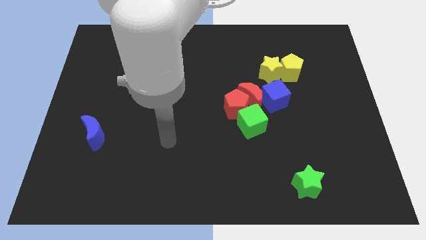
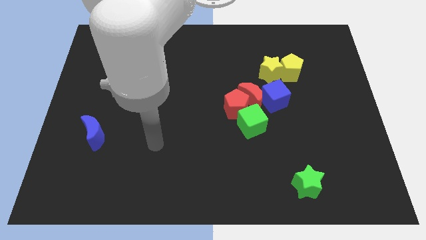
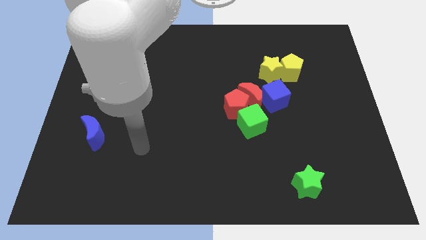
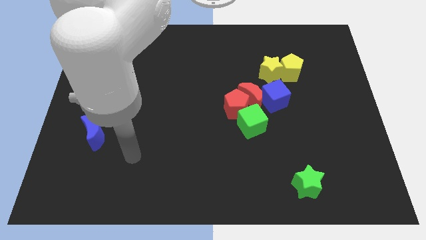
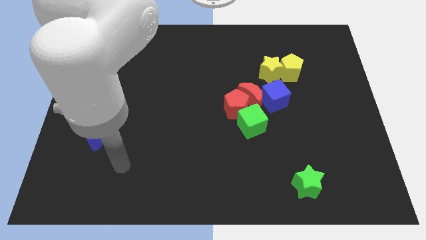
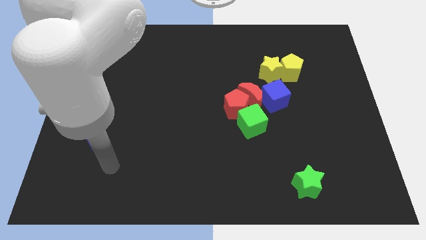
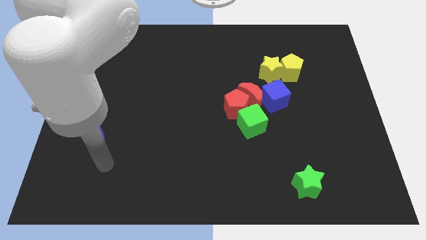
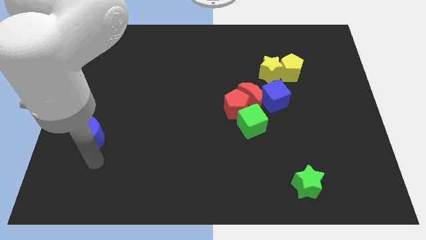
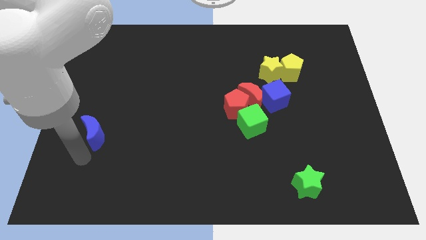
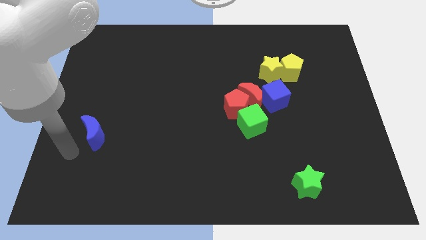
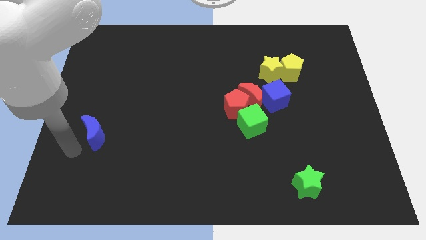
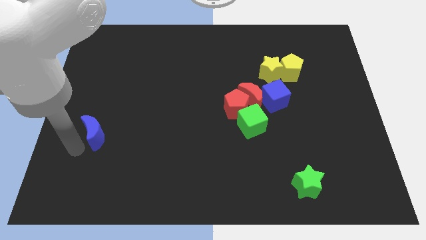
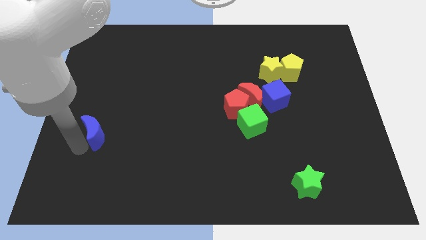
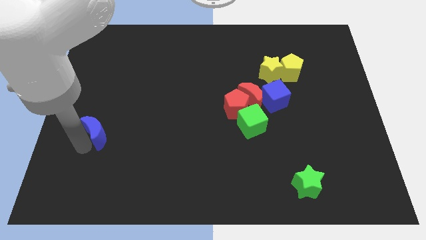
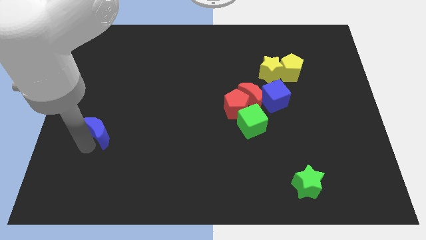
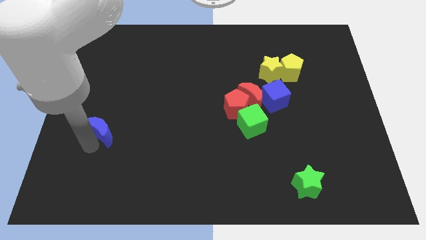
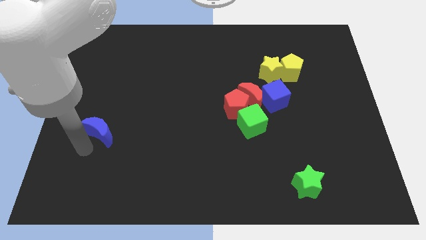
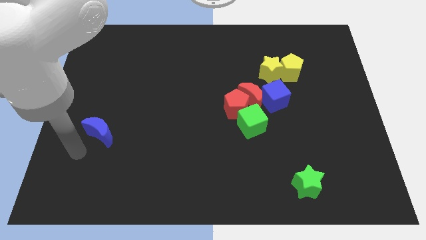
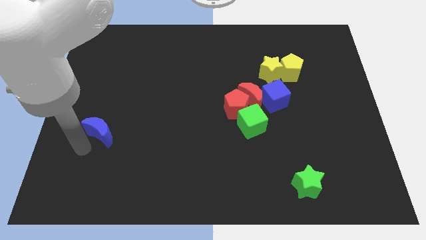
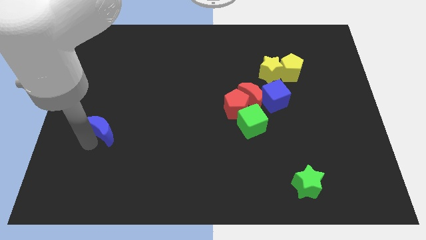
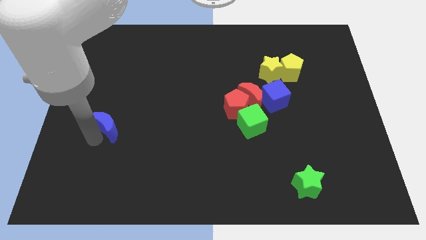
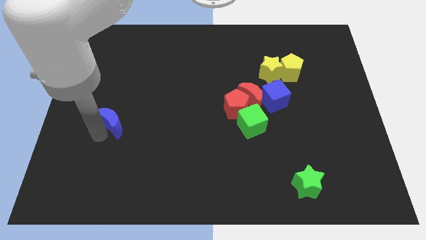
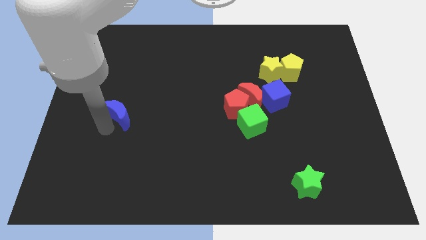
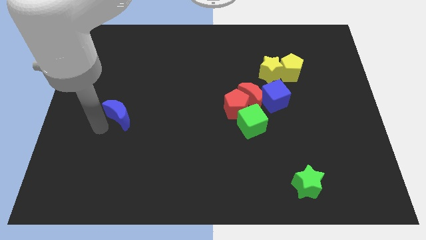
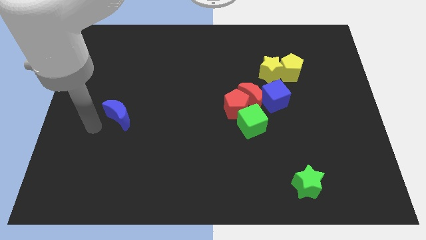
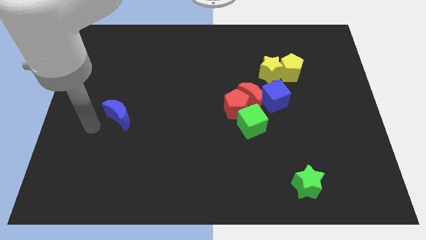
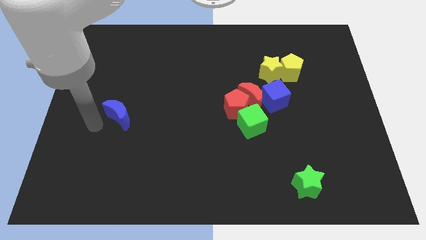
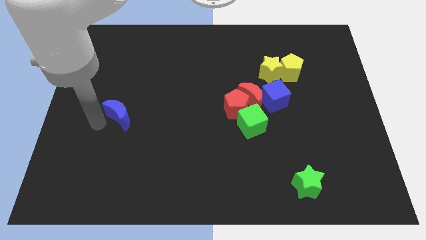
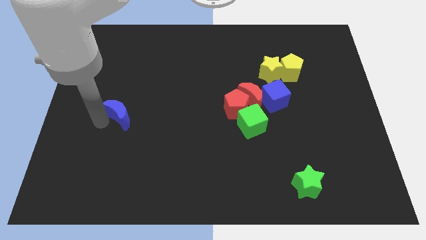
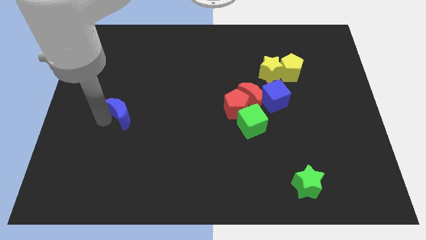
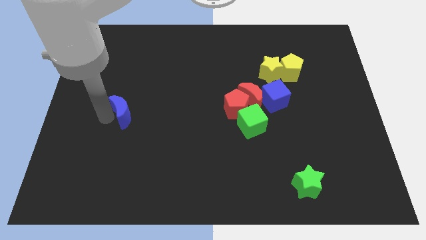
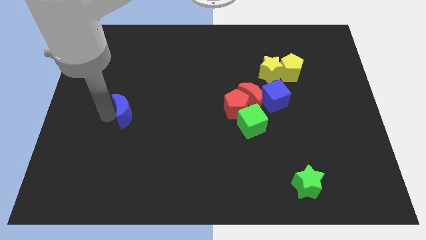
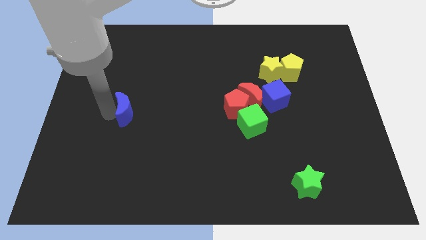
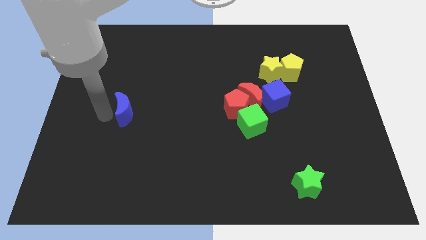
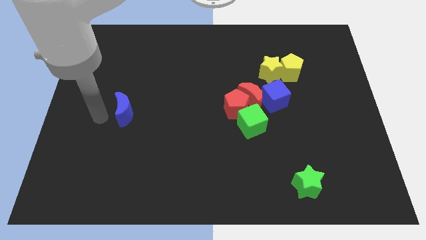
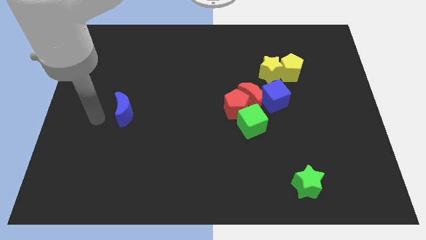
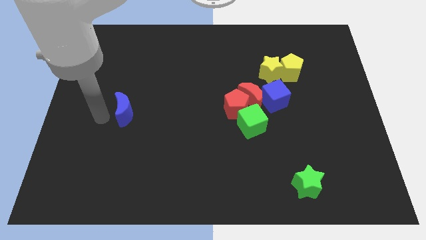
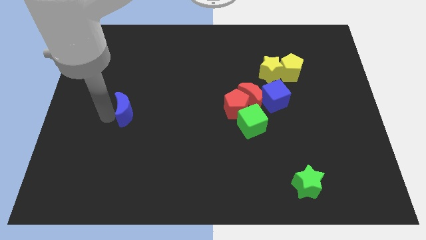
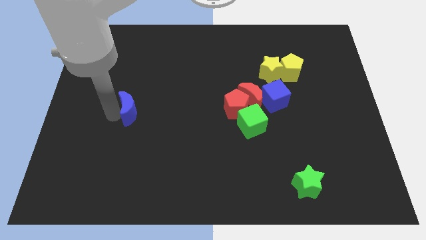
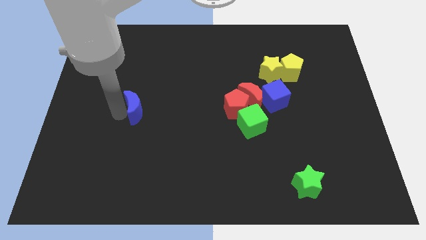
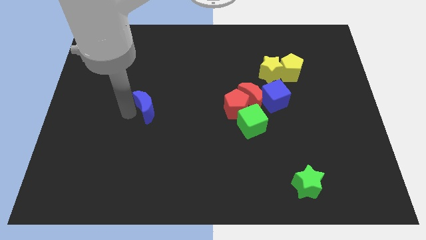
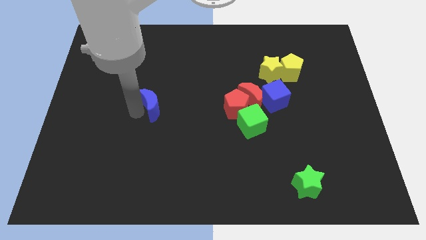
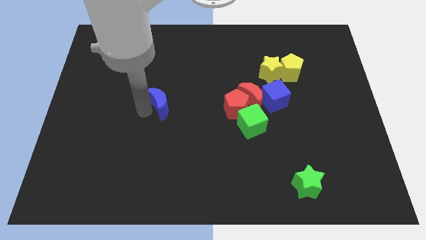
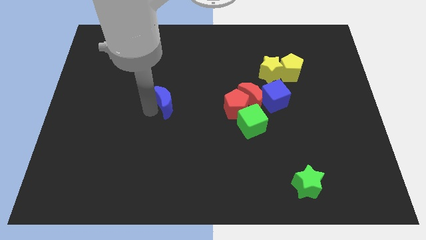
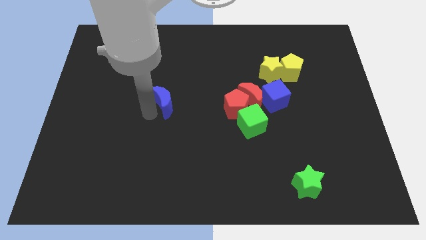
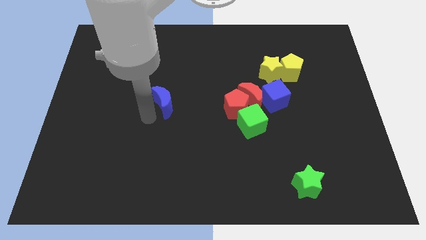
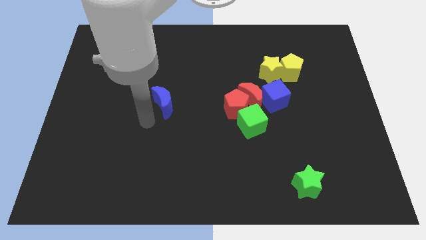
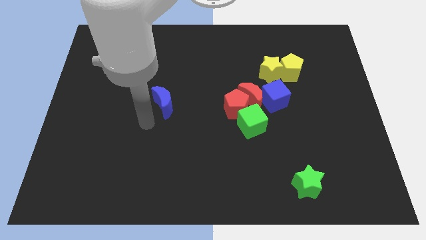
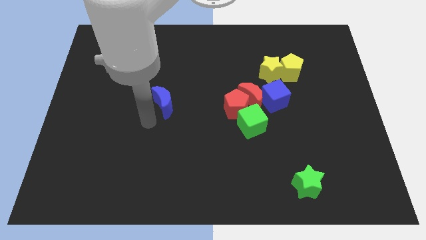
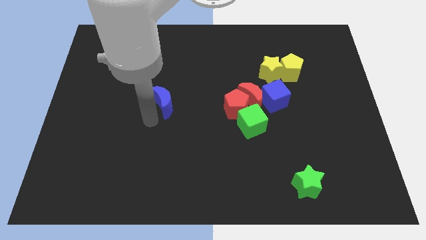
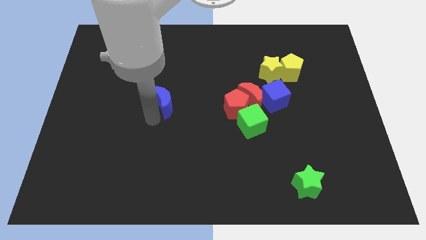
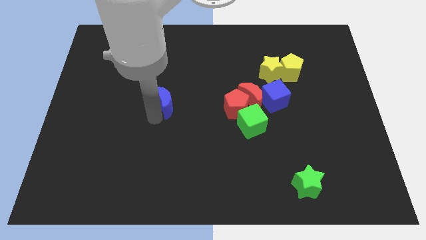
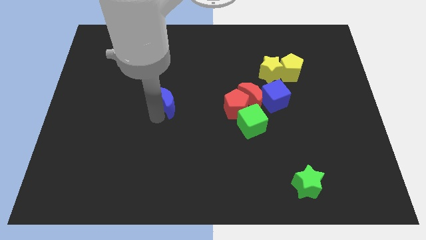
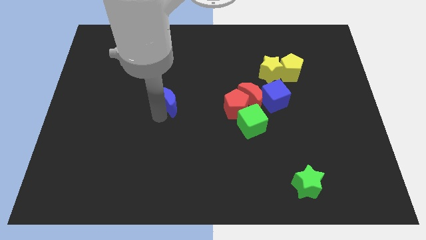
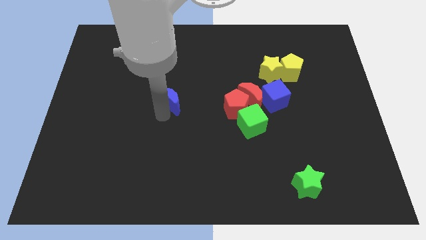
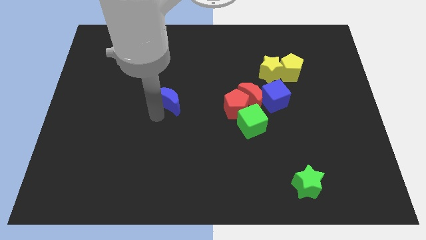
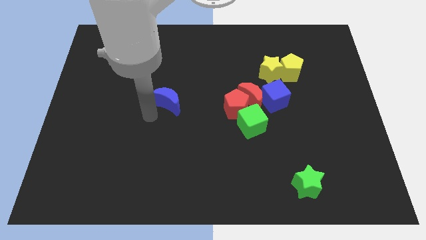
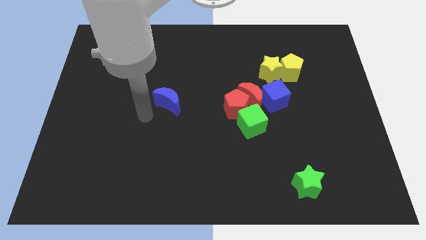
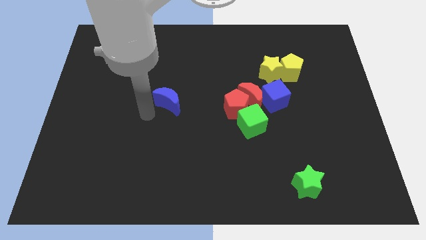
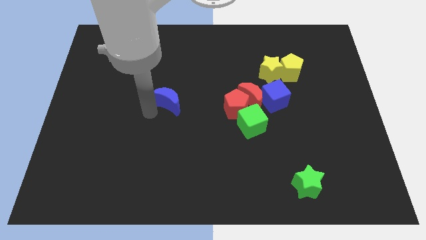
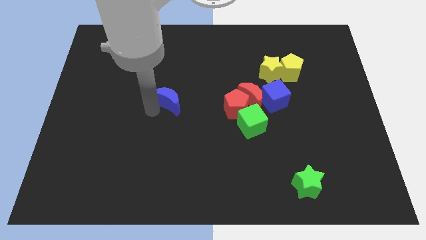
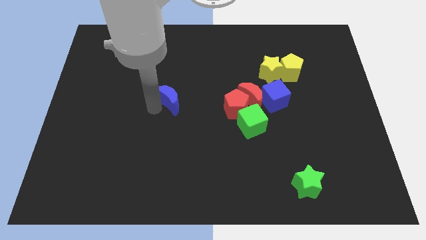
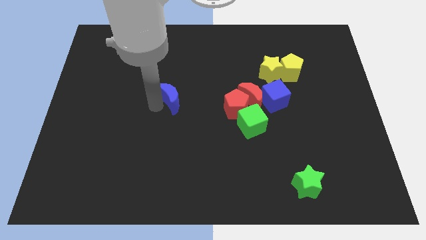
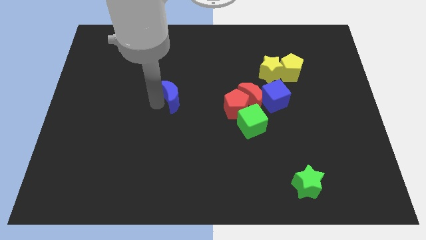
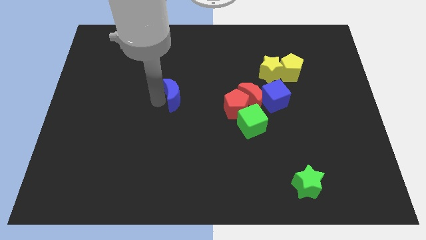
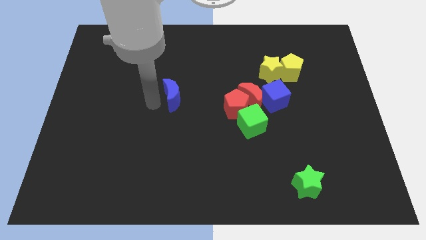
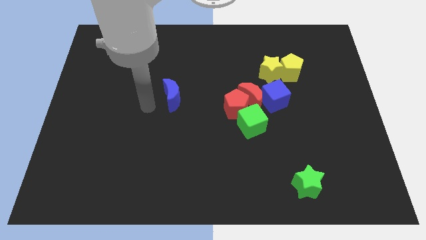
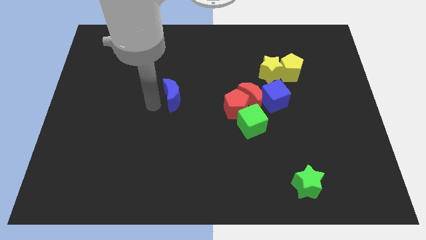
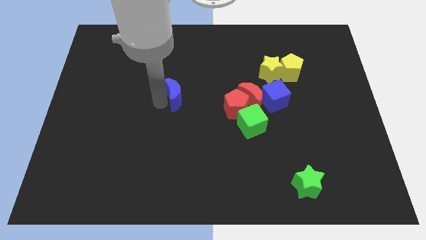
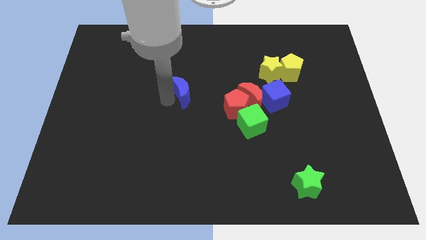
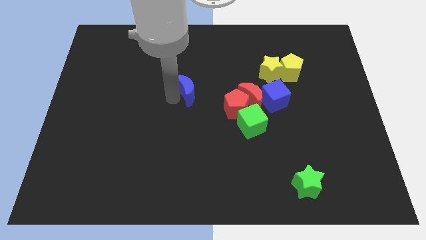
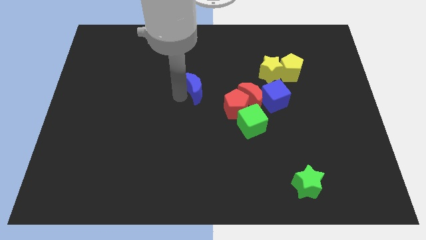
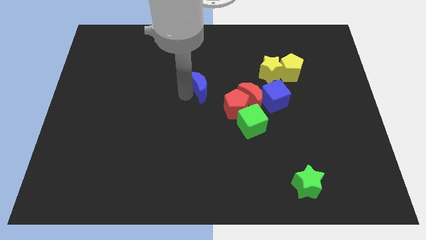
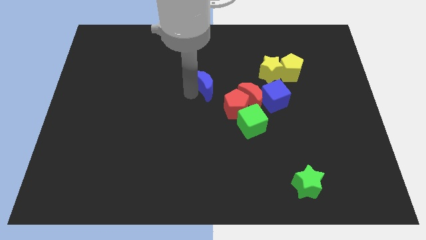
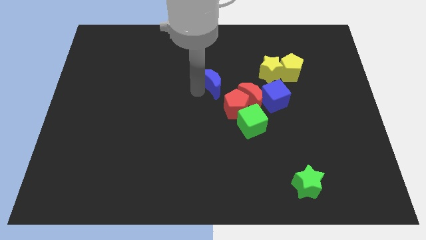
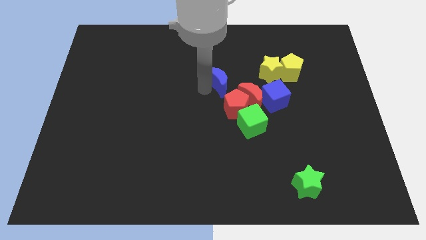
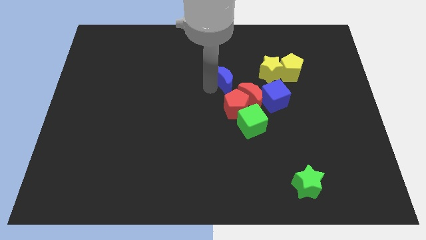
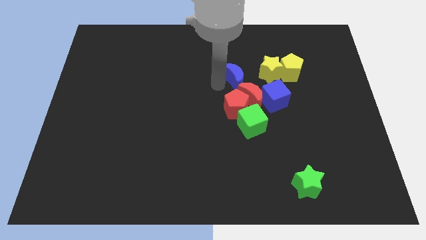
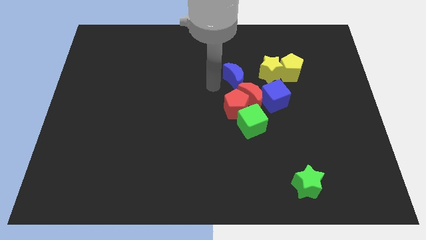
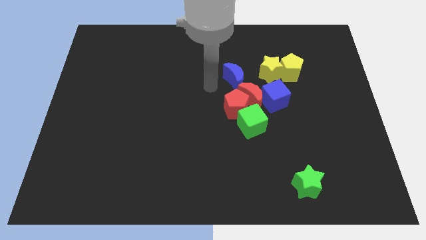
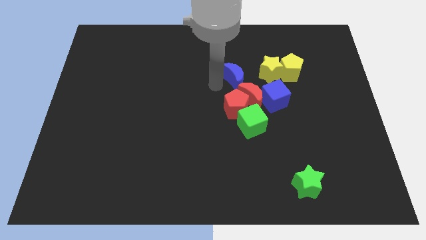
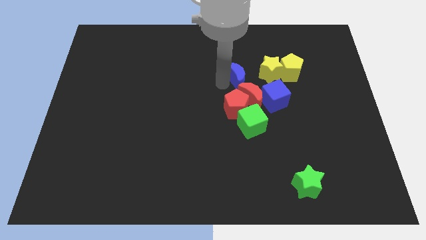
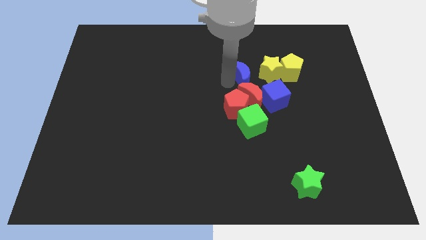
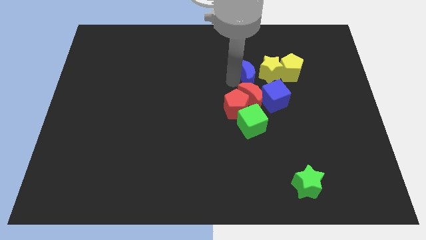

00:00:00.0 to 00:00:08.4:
put the blue moon to the yellow star
